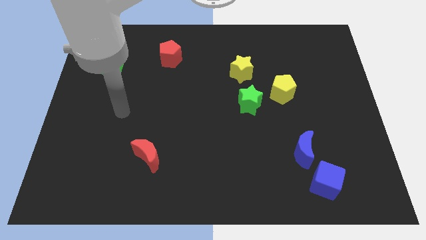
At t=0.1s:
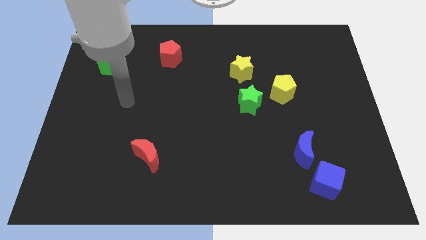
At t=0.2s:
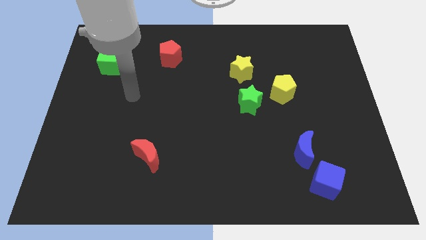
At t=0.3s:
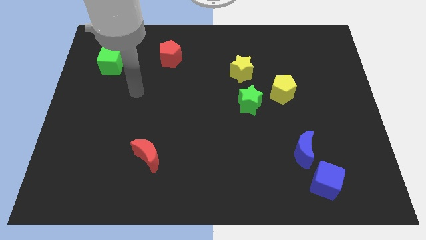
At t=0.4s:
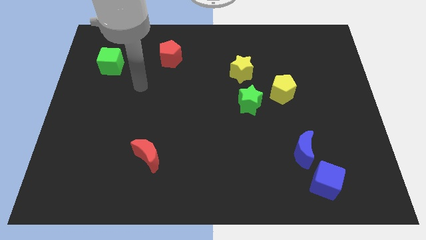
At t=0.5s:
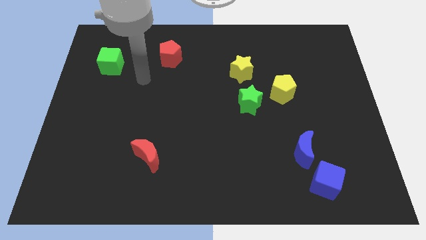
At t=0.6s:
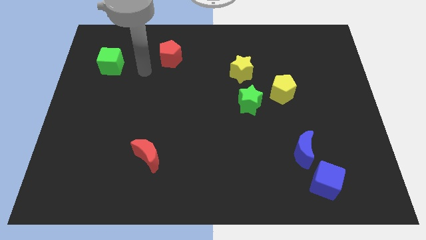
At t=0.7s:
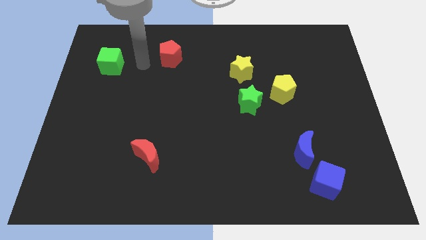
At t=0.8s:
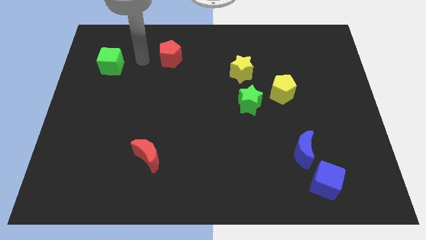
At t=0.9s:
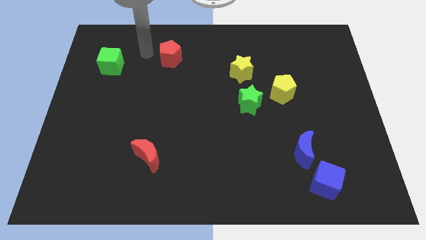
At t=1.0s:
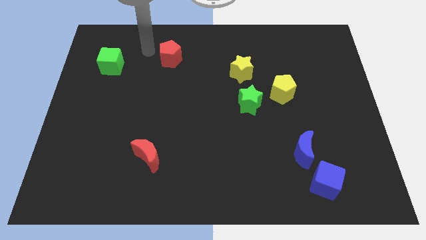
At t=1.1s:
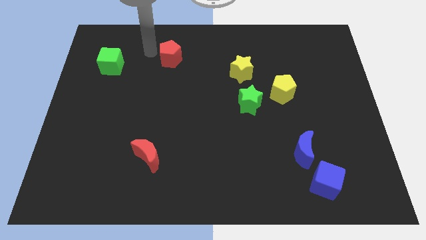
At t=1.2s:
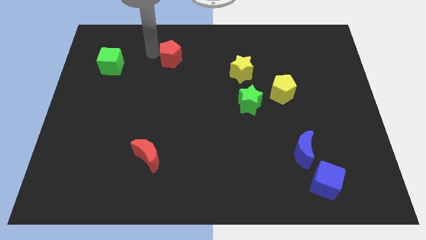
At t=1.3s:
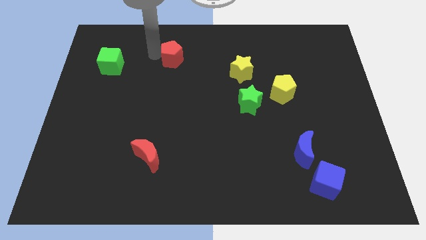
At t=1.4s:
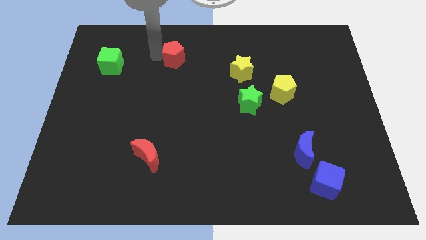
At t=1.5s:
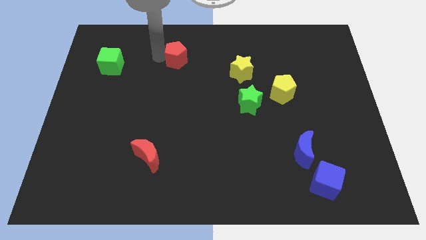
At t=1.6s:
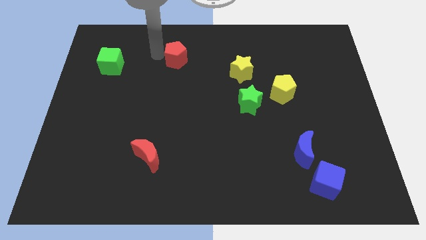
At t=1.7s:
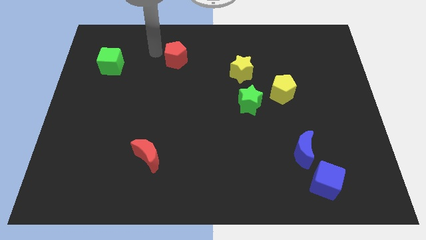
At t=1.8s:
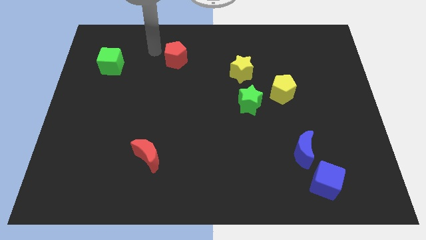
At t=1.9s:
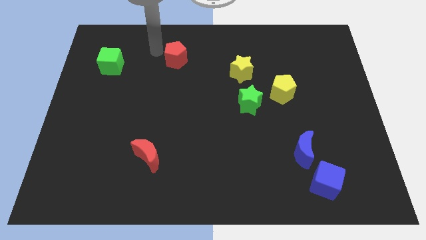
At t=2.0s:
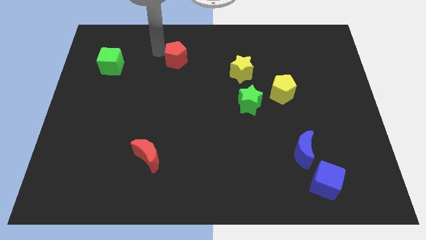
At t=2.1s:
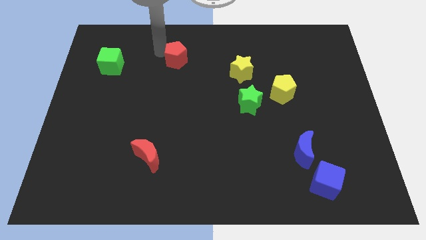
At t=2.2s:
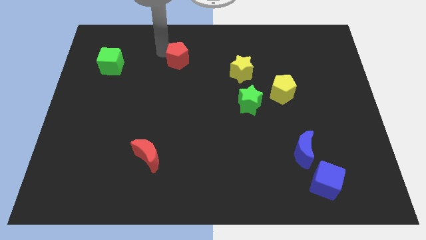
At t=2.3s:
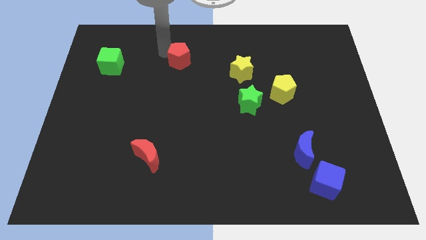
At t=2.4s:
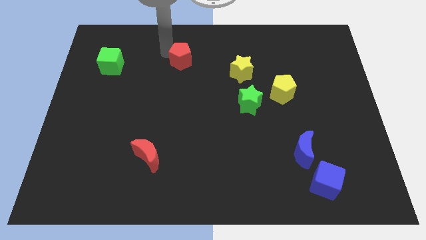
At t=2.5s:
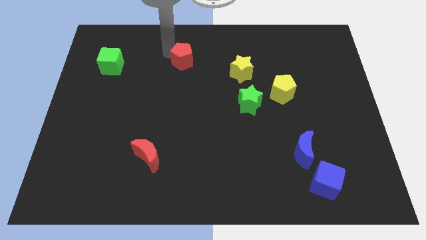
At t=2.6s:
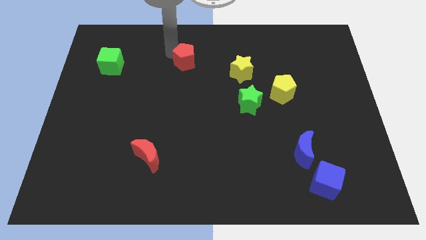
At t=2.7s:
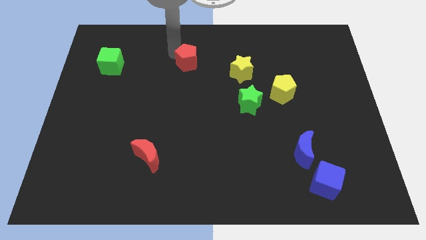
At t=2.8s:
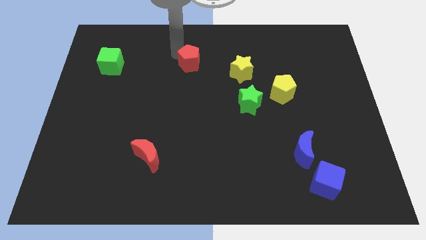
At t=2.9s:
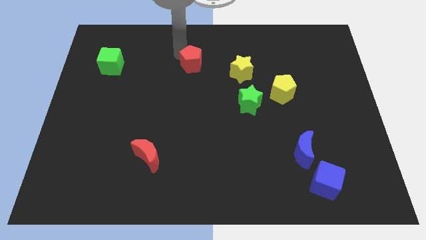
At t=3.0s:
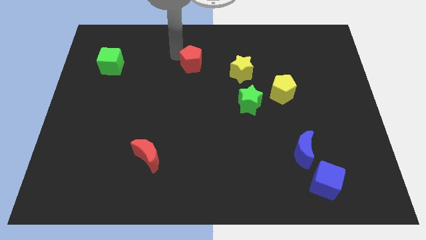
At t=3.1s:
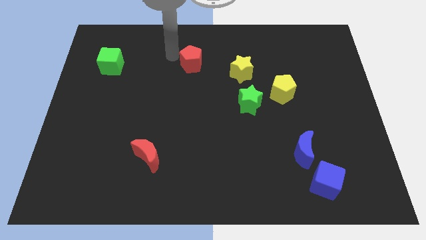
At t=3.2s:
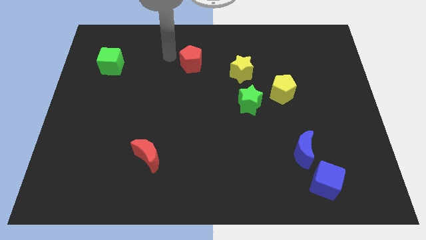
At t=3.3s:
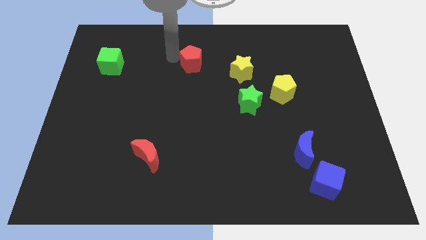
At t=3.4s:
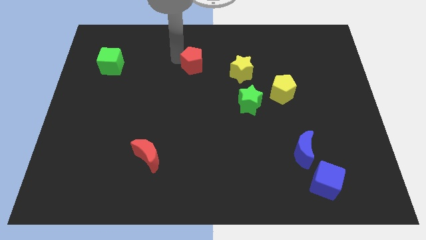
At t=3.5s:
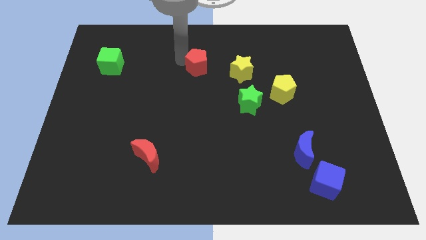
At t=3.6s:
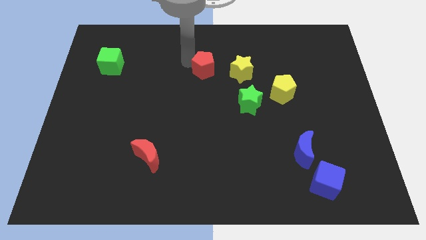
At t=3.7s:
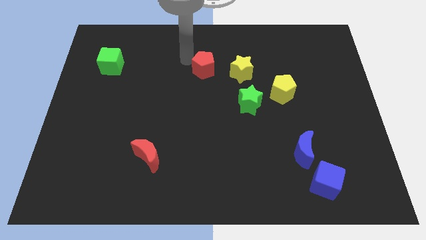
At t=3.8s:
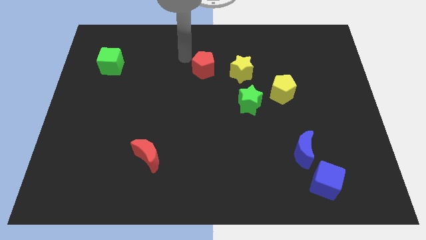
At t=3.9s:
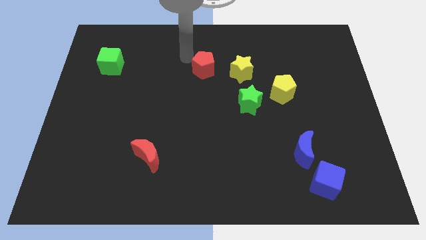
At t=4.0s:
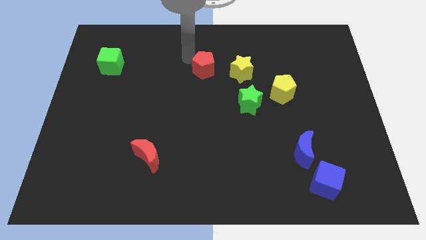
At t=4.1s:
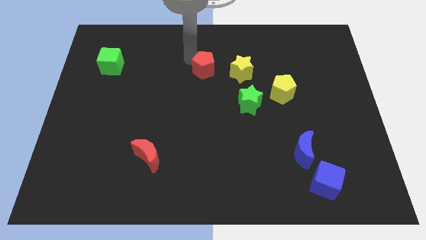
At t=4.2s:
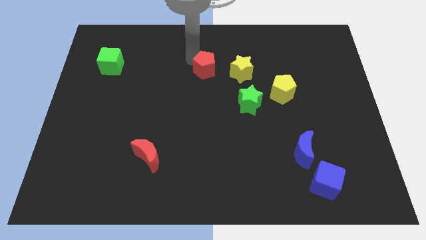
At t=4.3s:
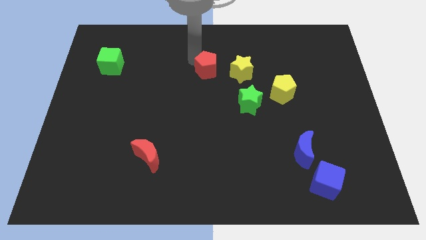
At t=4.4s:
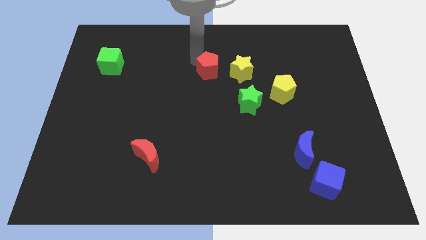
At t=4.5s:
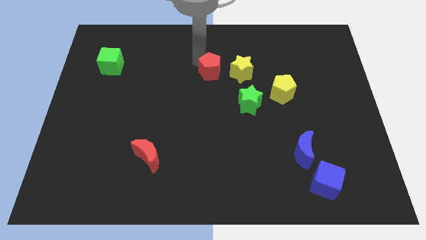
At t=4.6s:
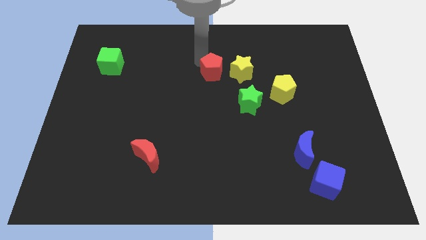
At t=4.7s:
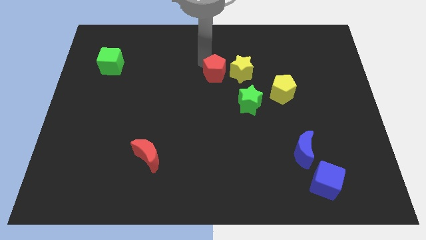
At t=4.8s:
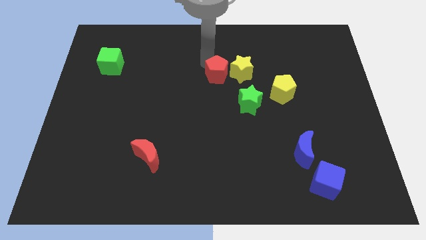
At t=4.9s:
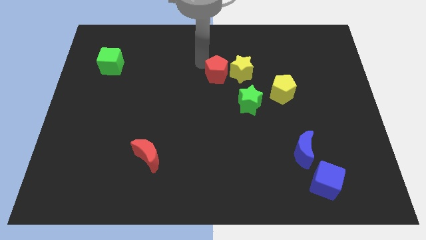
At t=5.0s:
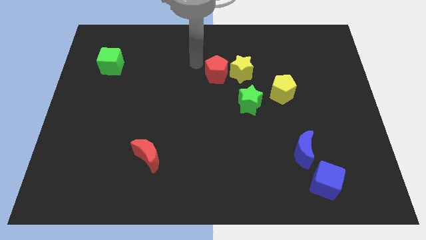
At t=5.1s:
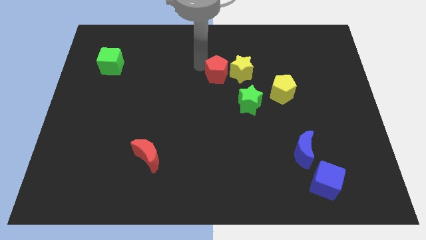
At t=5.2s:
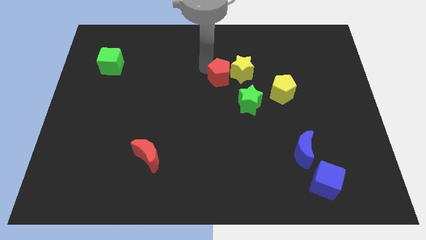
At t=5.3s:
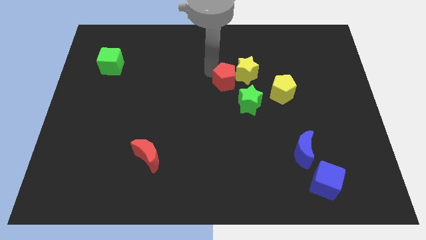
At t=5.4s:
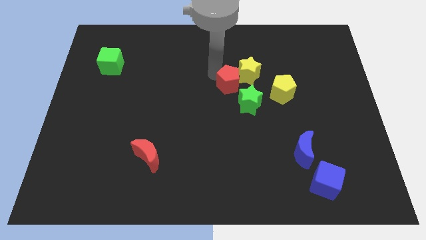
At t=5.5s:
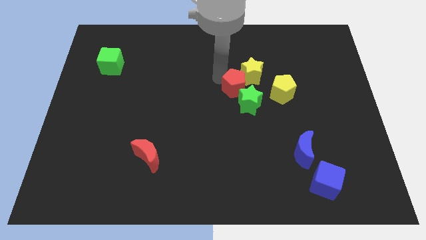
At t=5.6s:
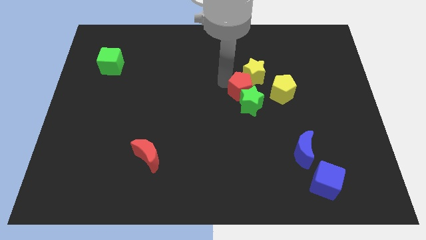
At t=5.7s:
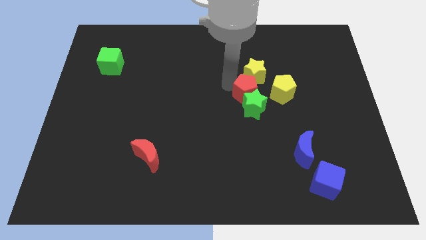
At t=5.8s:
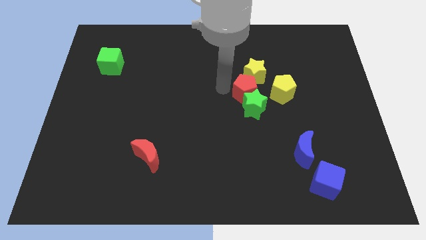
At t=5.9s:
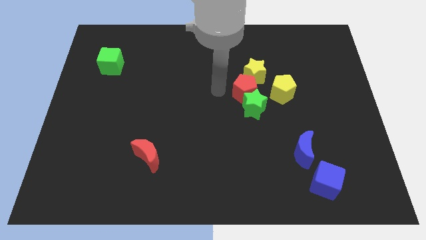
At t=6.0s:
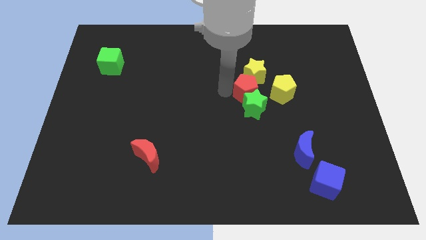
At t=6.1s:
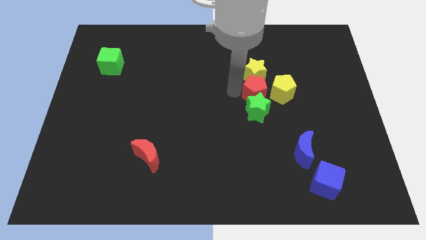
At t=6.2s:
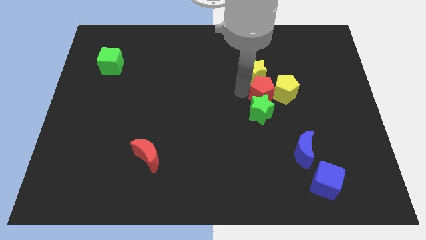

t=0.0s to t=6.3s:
push the red pentagon close to the yellow pentagon

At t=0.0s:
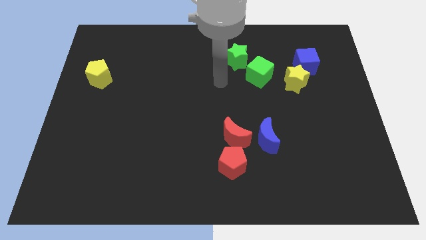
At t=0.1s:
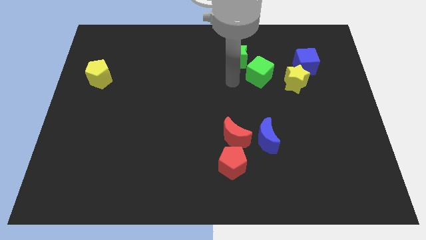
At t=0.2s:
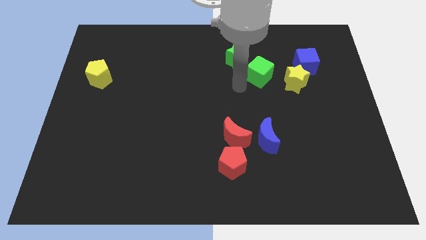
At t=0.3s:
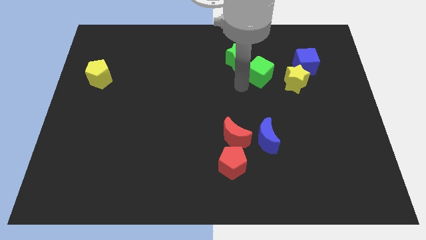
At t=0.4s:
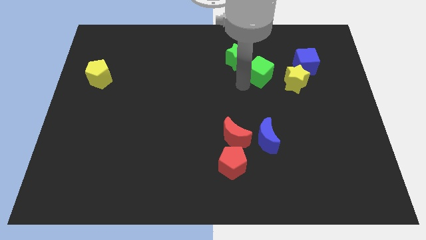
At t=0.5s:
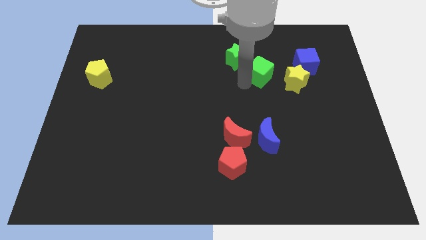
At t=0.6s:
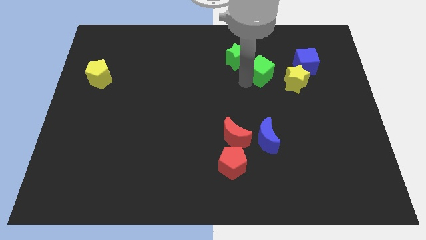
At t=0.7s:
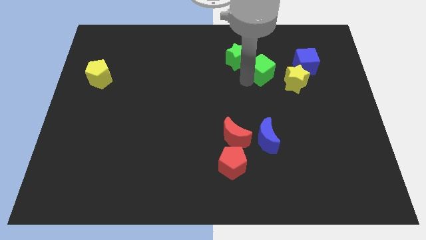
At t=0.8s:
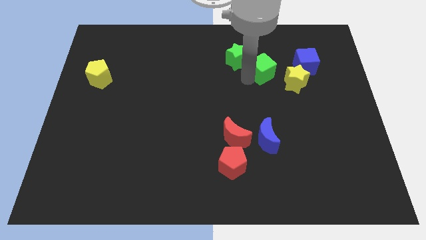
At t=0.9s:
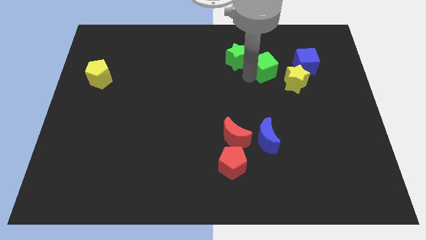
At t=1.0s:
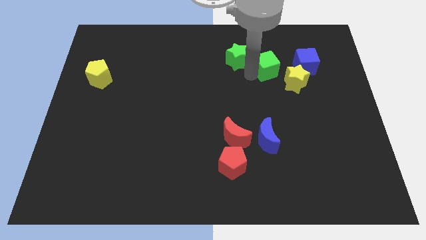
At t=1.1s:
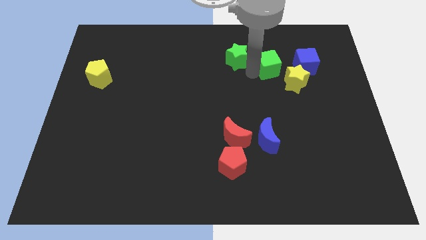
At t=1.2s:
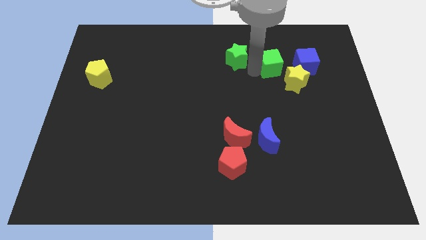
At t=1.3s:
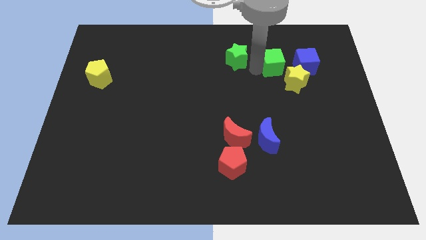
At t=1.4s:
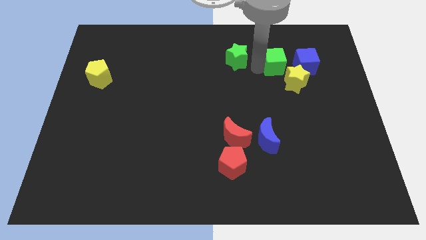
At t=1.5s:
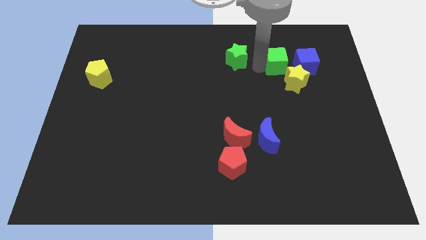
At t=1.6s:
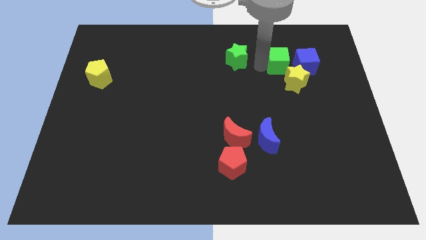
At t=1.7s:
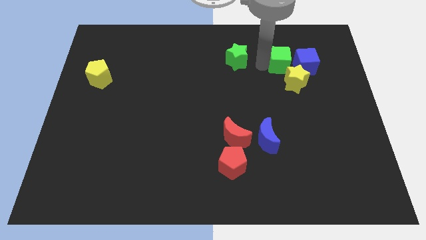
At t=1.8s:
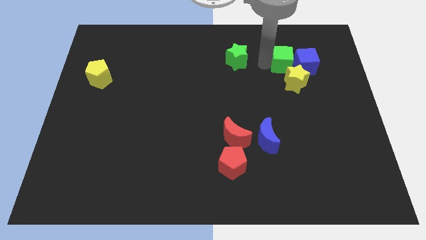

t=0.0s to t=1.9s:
push the green cube next to the blue cube
